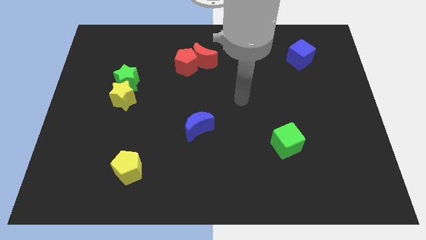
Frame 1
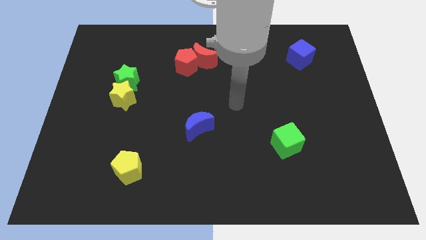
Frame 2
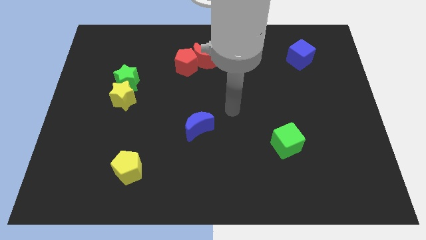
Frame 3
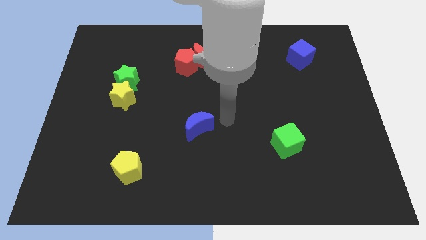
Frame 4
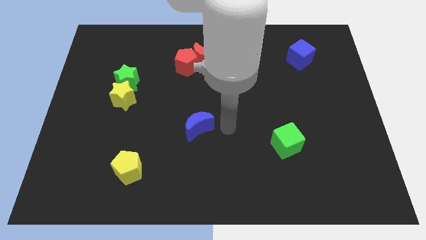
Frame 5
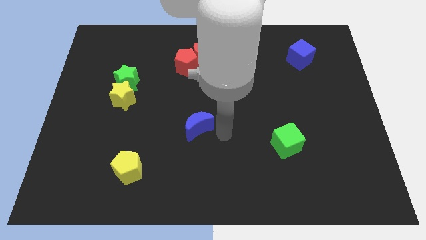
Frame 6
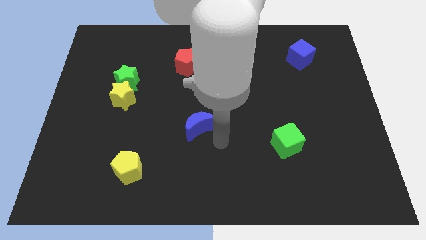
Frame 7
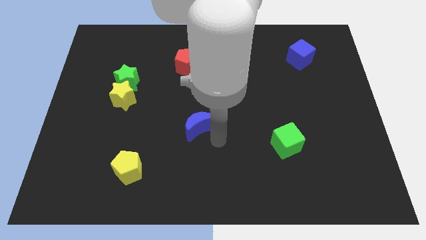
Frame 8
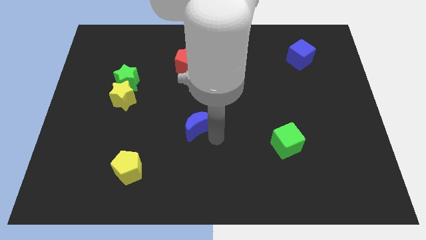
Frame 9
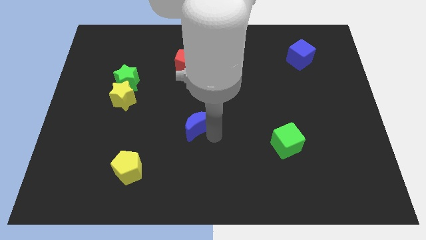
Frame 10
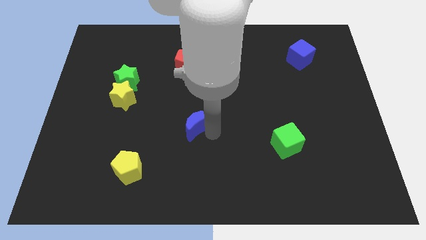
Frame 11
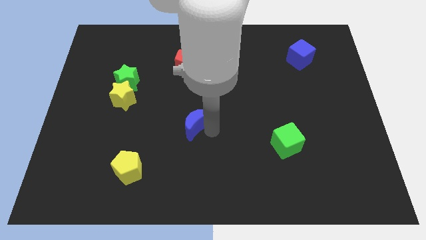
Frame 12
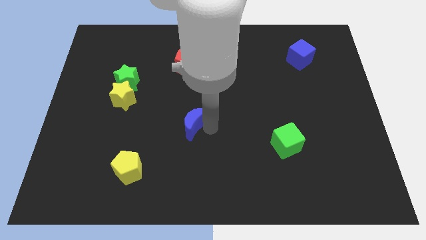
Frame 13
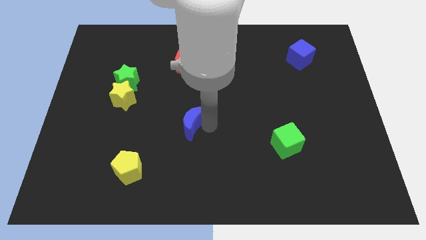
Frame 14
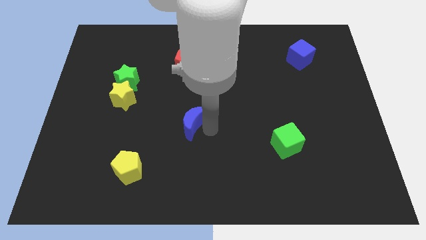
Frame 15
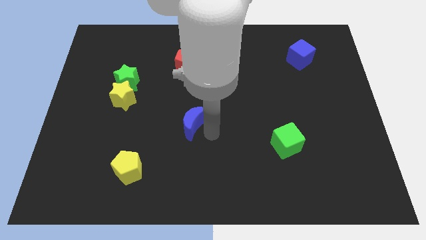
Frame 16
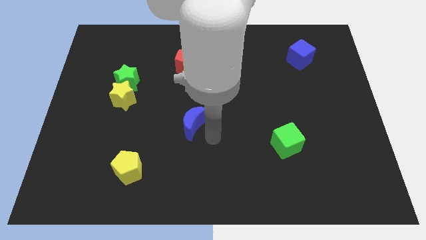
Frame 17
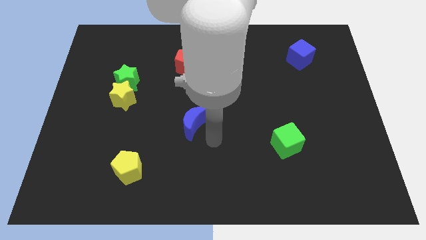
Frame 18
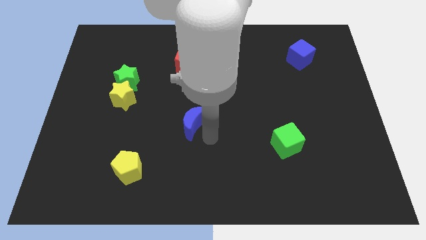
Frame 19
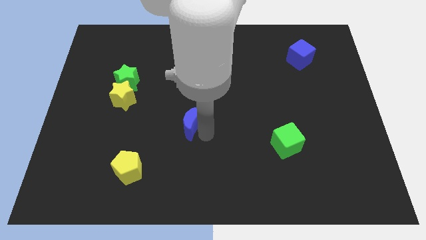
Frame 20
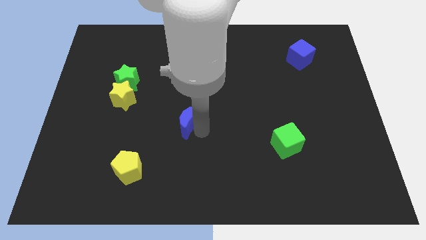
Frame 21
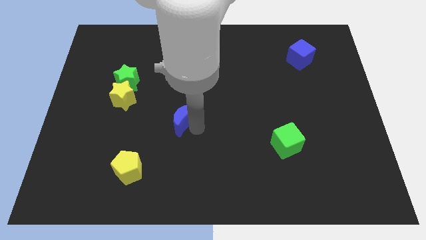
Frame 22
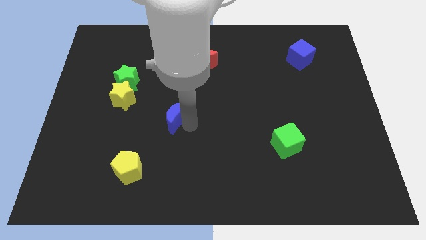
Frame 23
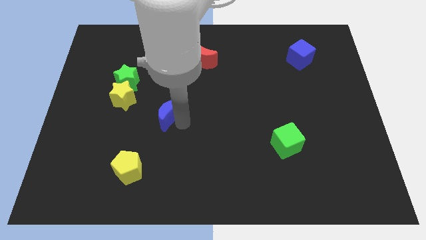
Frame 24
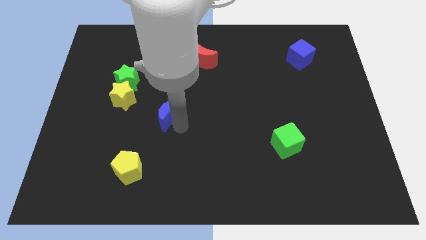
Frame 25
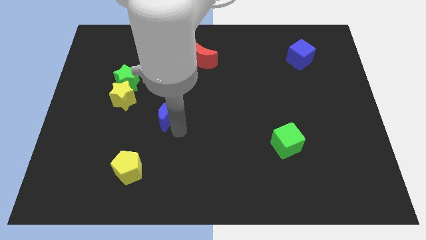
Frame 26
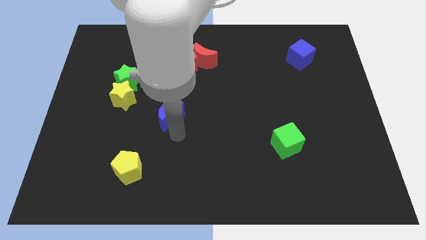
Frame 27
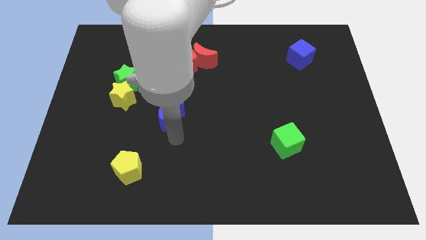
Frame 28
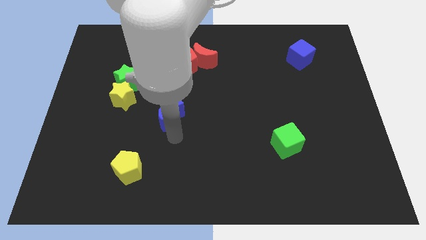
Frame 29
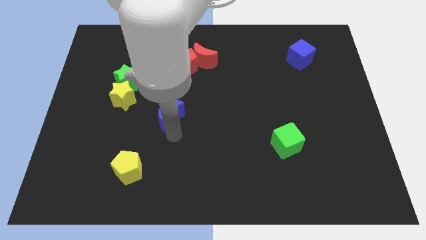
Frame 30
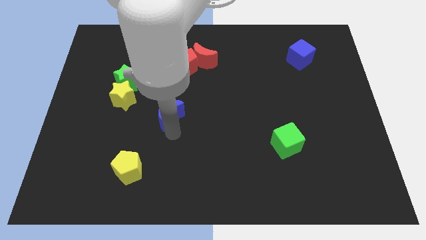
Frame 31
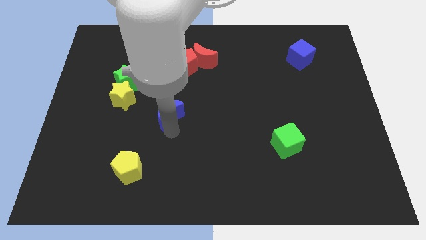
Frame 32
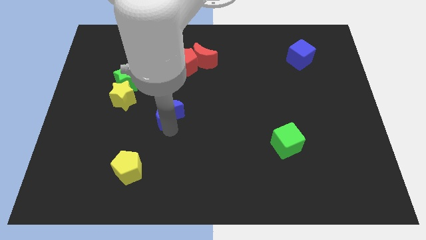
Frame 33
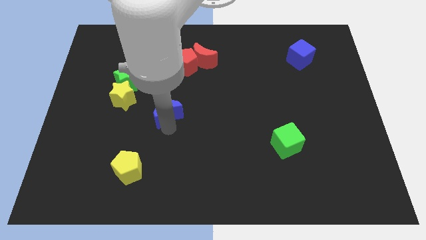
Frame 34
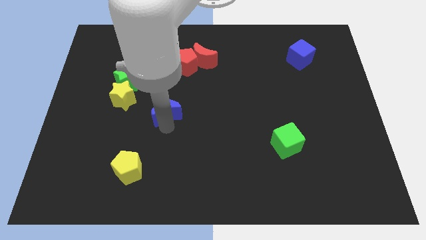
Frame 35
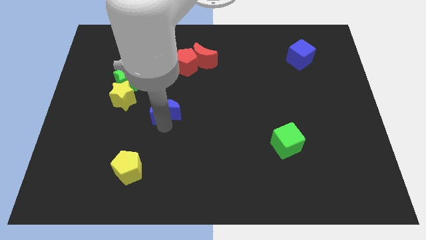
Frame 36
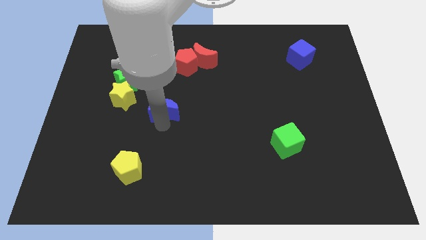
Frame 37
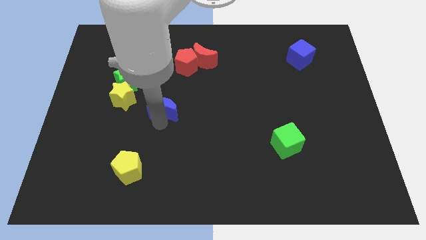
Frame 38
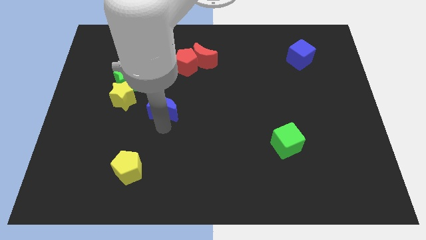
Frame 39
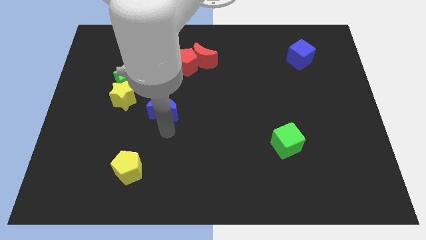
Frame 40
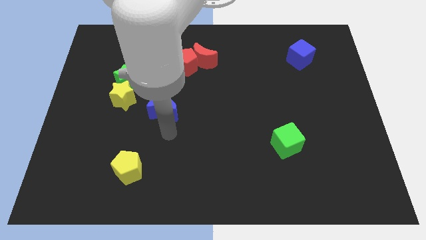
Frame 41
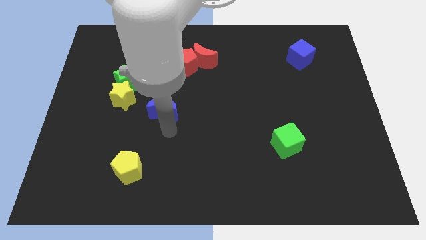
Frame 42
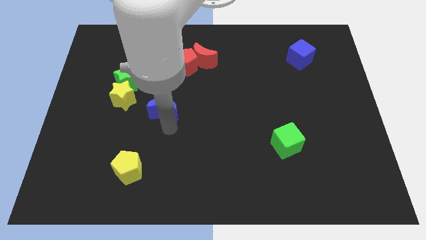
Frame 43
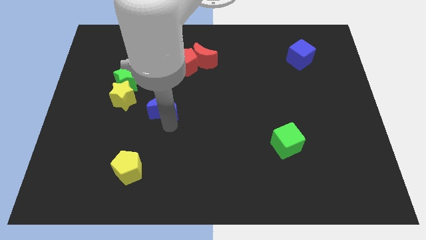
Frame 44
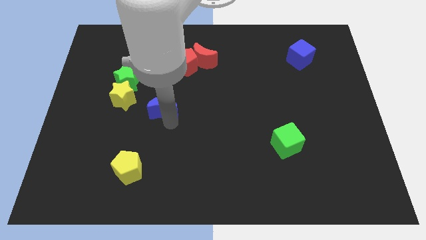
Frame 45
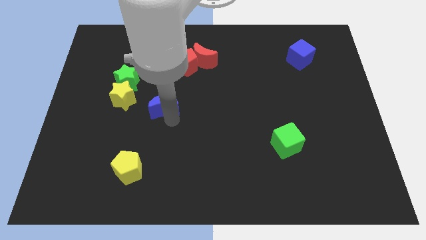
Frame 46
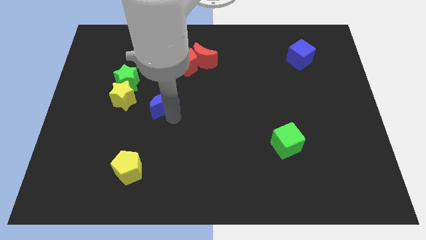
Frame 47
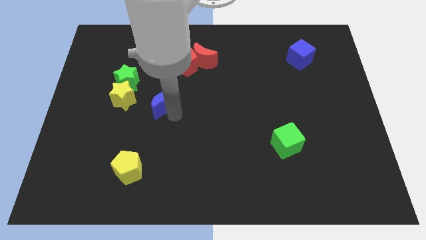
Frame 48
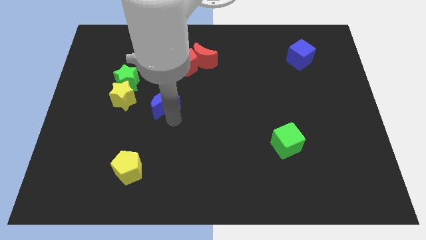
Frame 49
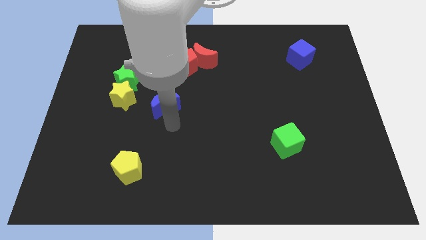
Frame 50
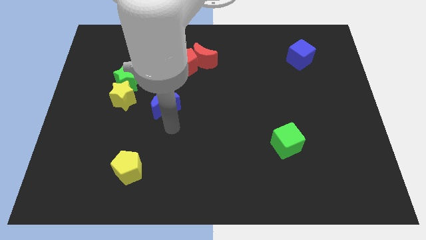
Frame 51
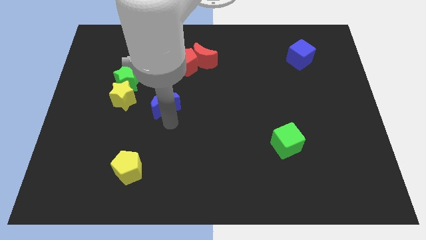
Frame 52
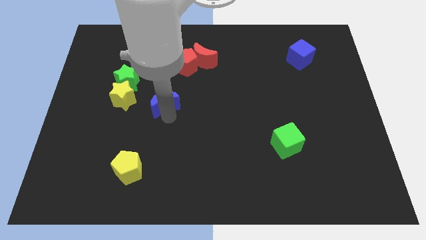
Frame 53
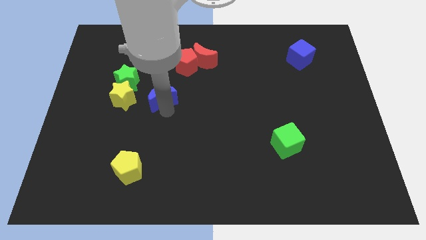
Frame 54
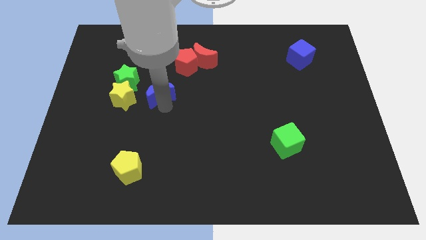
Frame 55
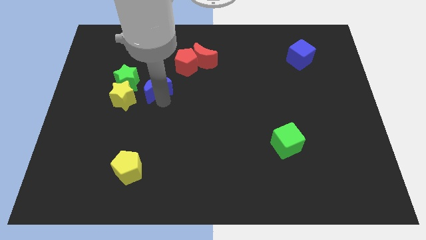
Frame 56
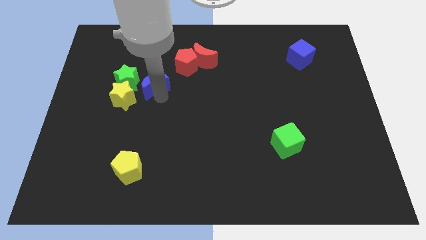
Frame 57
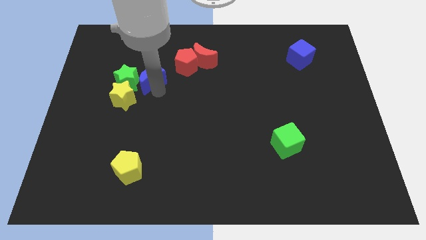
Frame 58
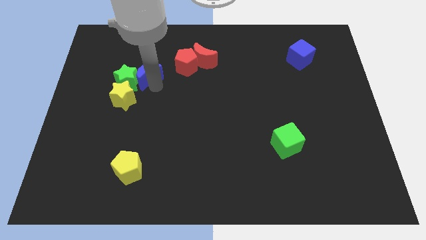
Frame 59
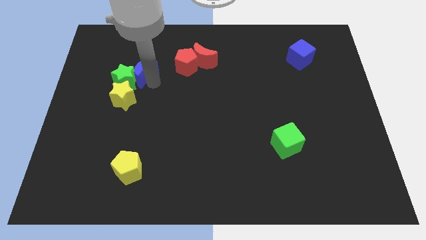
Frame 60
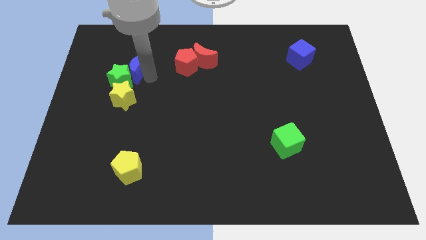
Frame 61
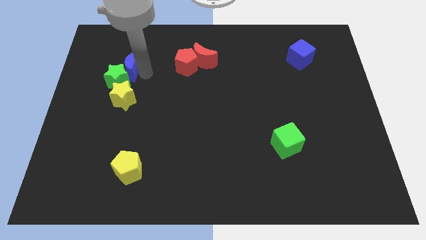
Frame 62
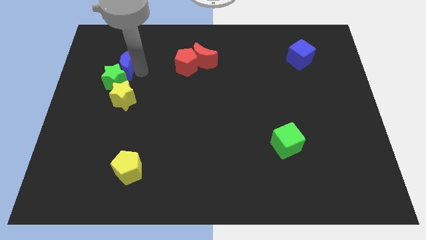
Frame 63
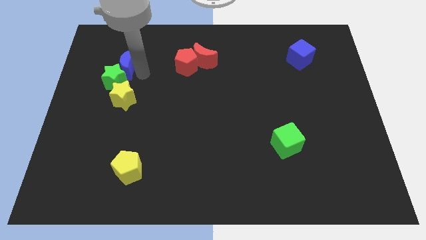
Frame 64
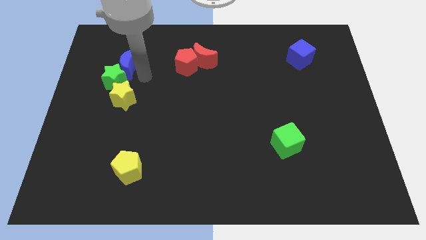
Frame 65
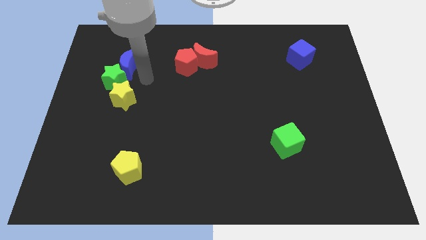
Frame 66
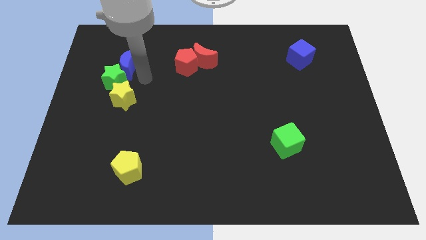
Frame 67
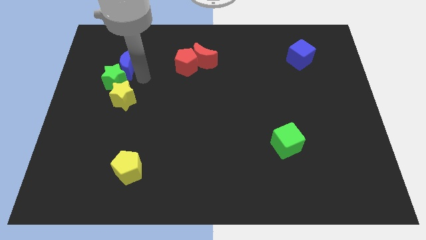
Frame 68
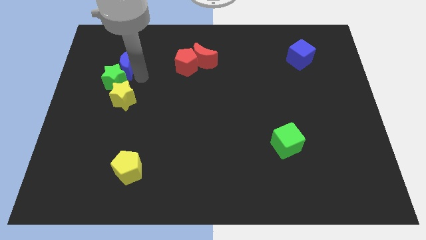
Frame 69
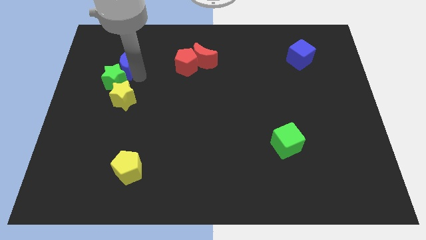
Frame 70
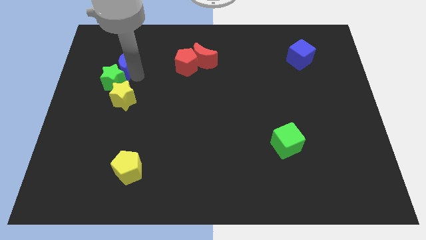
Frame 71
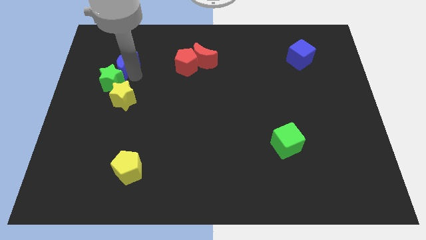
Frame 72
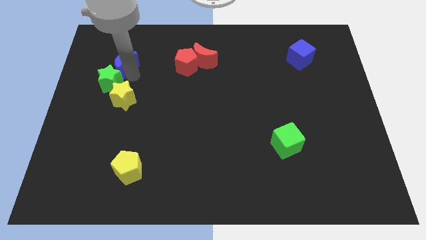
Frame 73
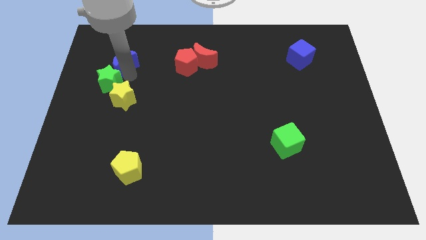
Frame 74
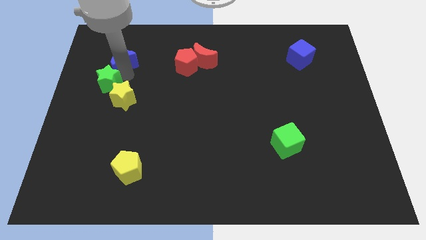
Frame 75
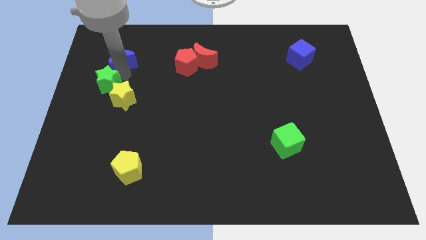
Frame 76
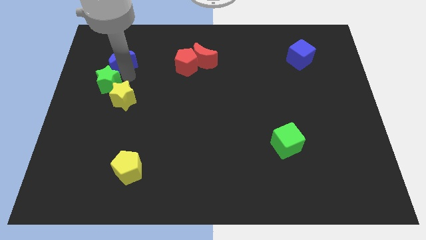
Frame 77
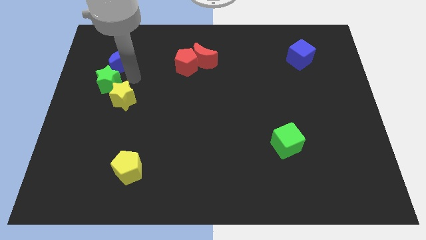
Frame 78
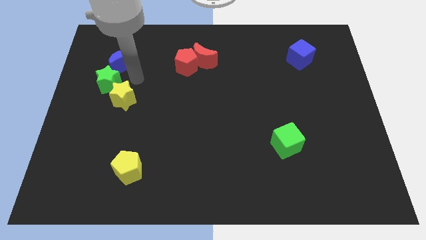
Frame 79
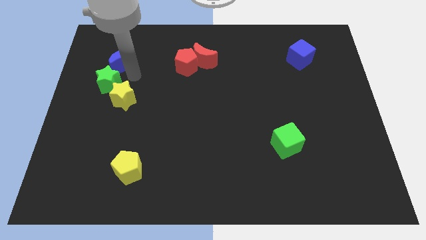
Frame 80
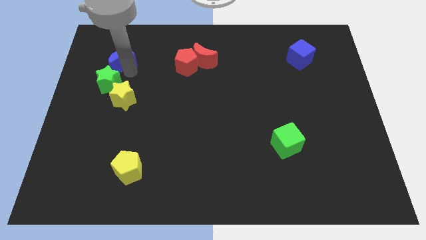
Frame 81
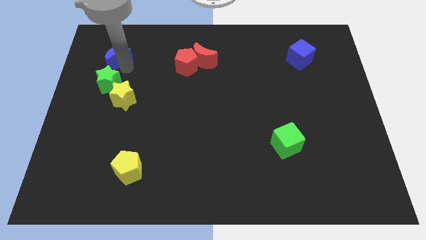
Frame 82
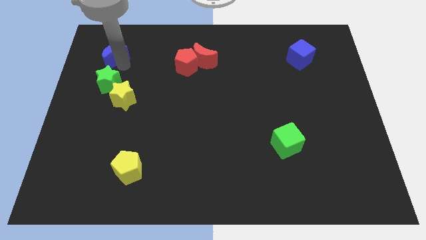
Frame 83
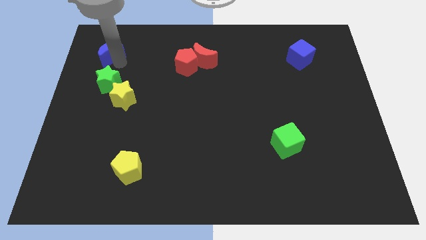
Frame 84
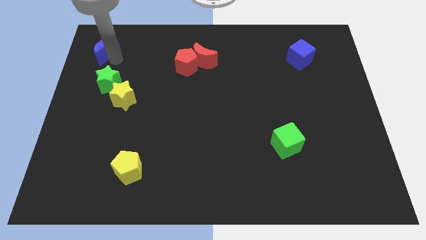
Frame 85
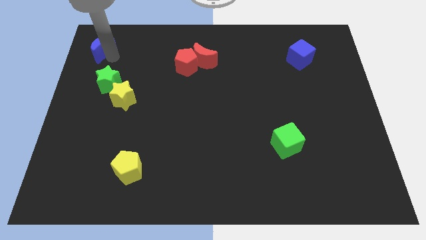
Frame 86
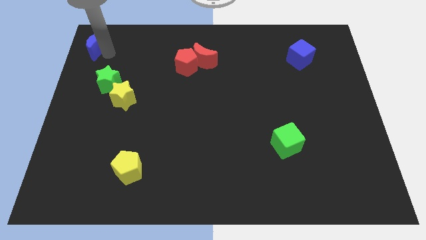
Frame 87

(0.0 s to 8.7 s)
slide the blue moon to the top left corner
